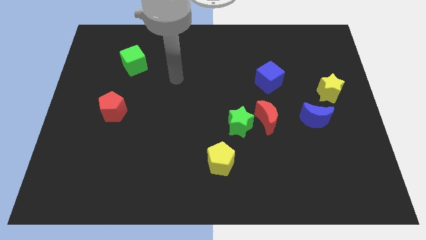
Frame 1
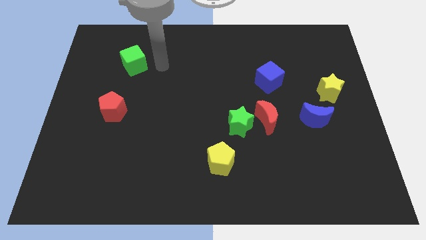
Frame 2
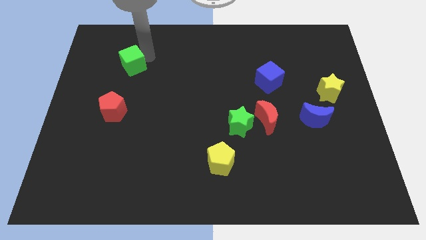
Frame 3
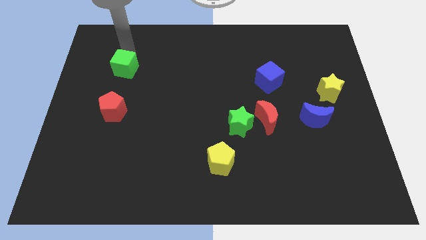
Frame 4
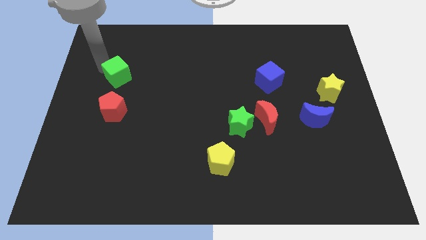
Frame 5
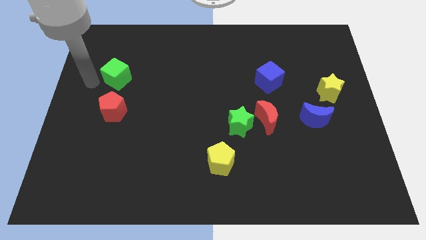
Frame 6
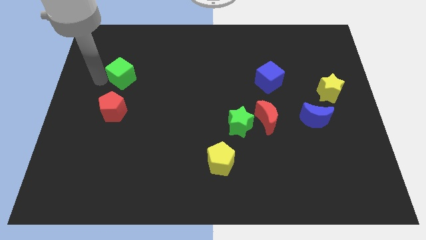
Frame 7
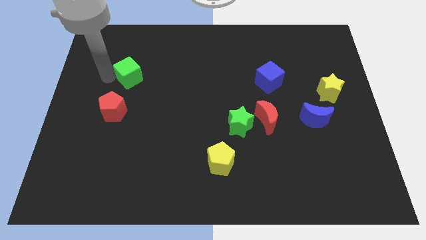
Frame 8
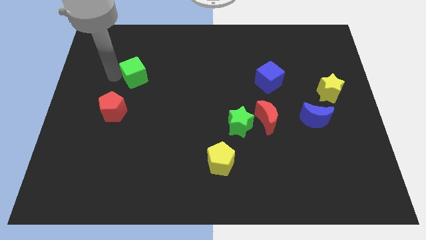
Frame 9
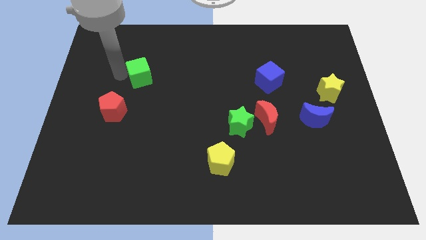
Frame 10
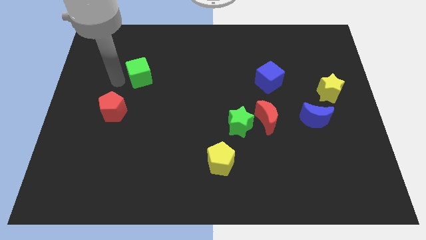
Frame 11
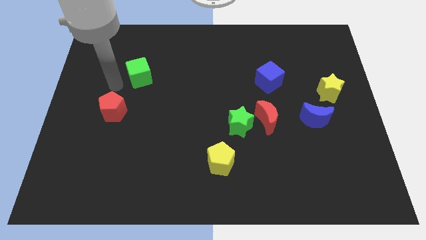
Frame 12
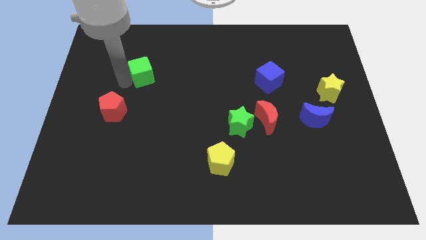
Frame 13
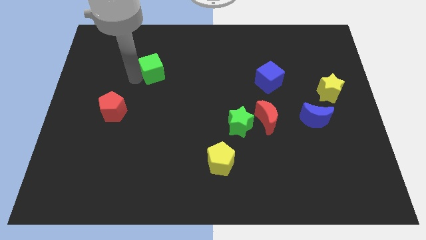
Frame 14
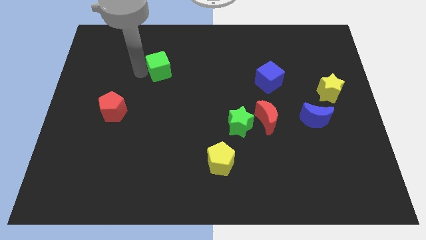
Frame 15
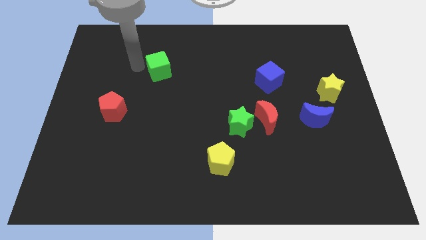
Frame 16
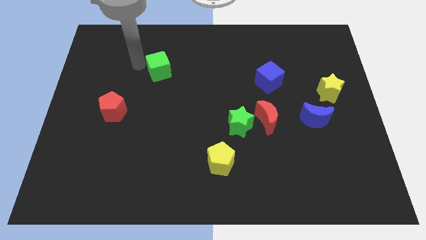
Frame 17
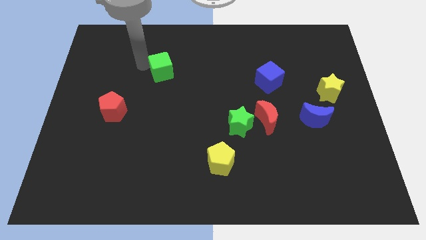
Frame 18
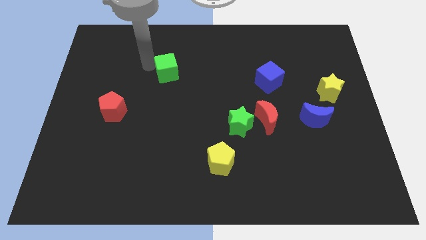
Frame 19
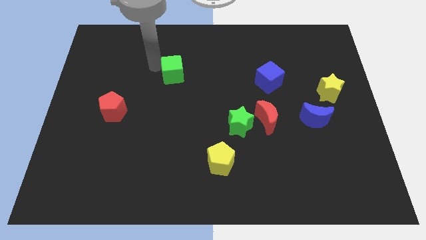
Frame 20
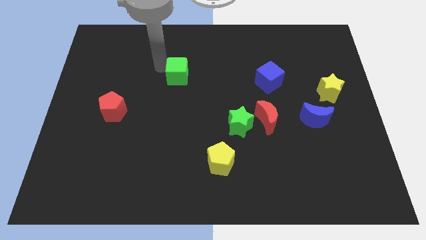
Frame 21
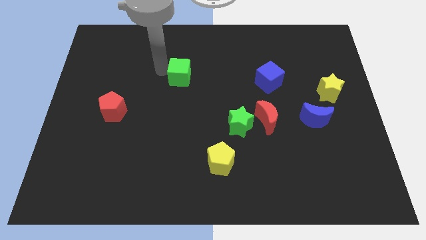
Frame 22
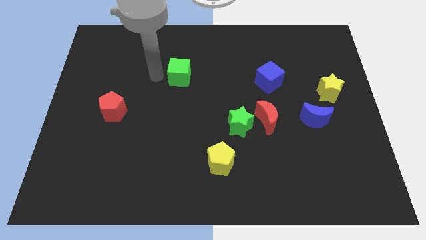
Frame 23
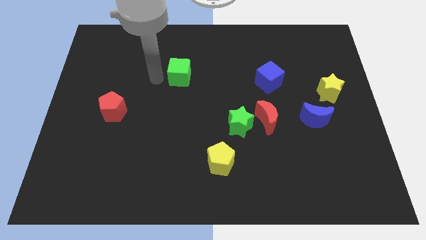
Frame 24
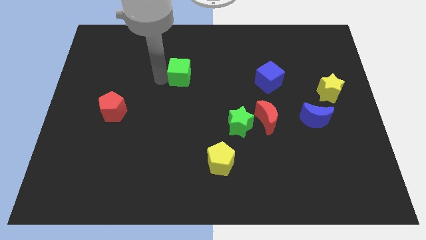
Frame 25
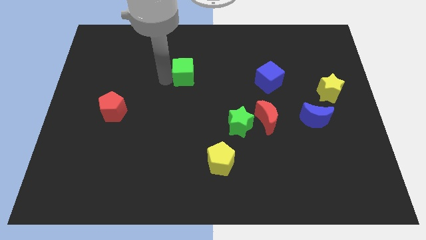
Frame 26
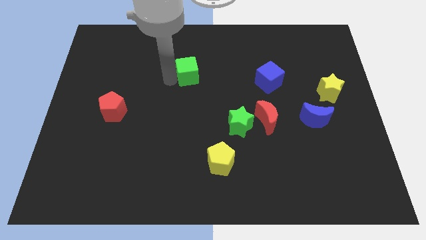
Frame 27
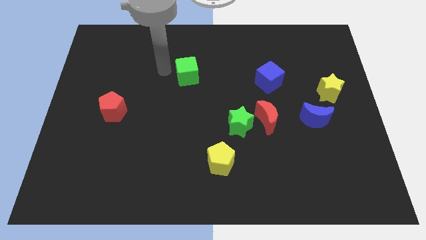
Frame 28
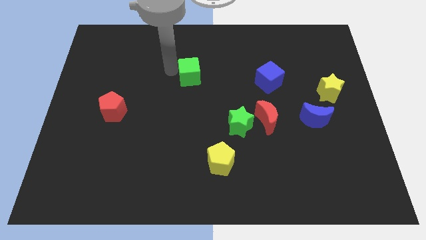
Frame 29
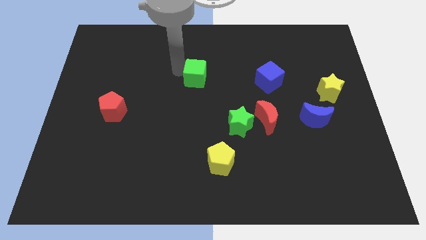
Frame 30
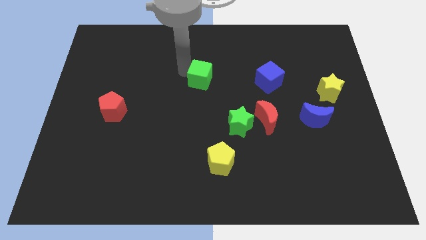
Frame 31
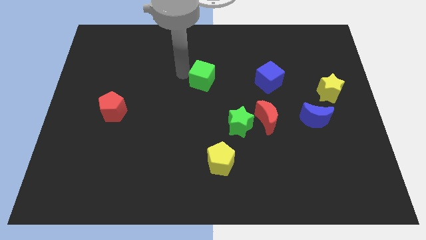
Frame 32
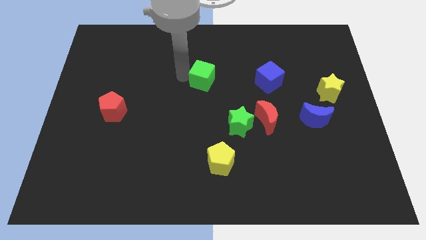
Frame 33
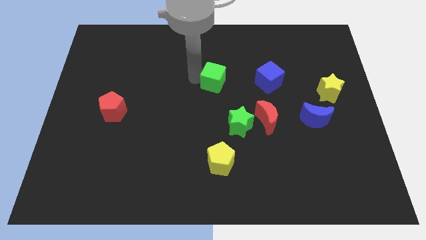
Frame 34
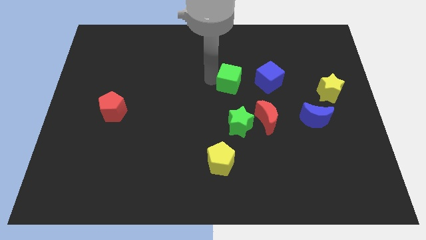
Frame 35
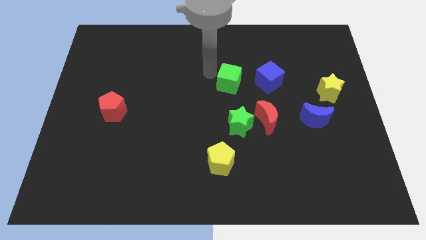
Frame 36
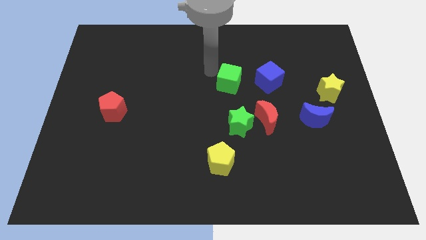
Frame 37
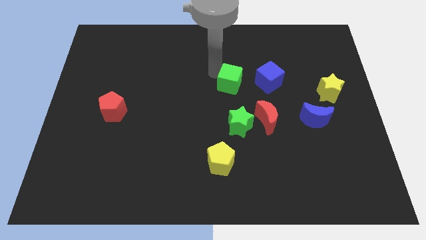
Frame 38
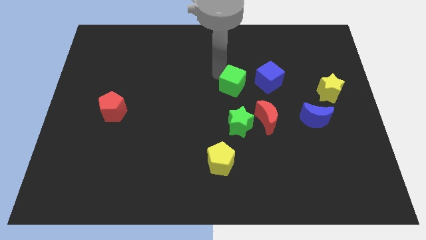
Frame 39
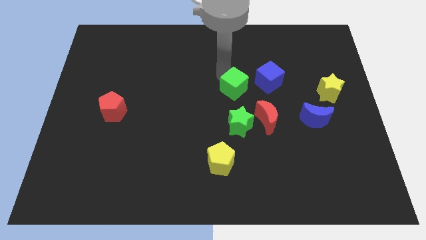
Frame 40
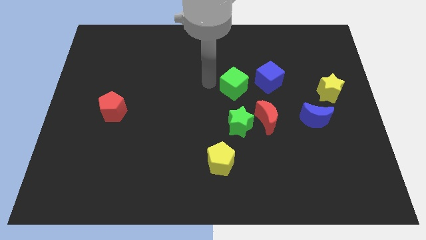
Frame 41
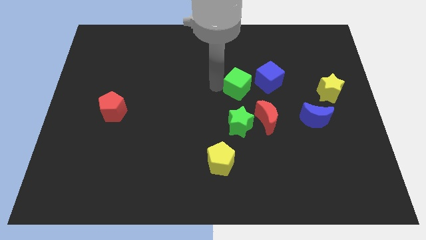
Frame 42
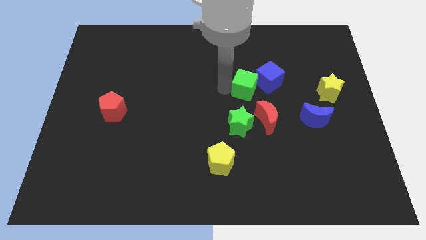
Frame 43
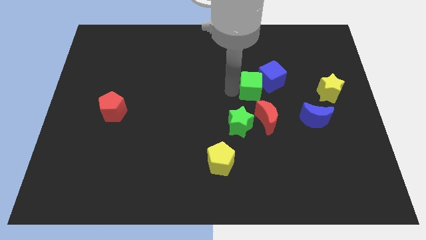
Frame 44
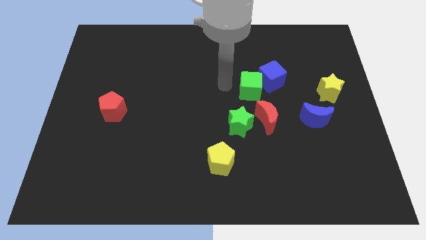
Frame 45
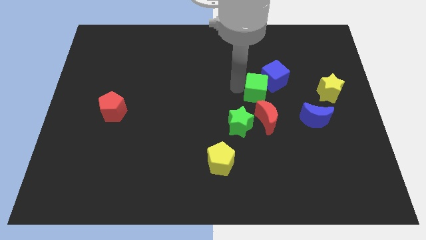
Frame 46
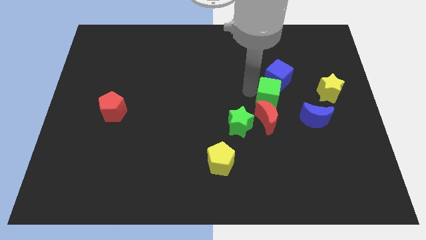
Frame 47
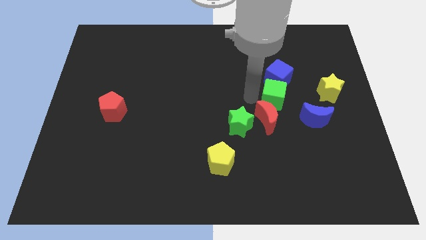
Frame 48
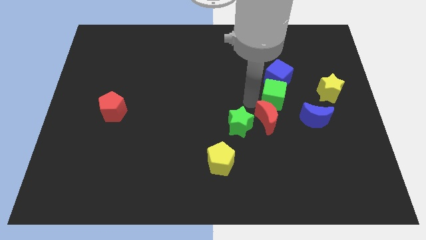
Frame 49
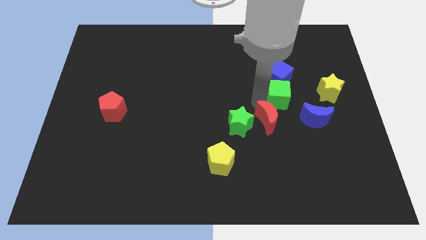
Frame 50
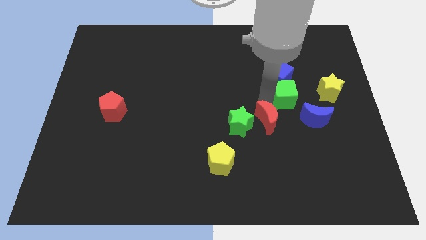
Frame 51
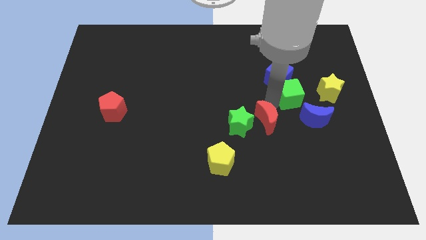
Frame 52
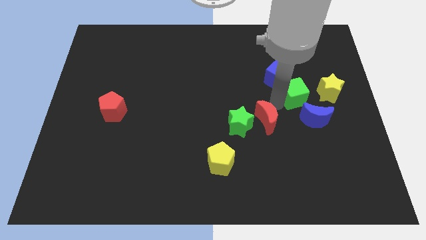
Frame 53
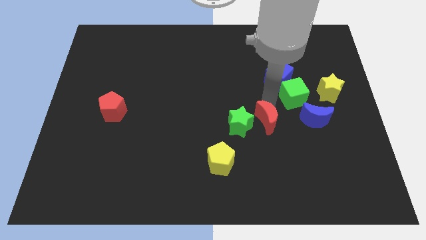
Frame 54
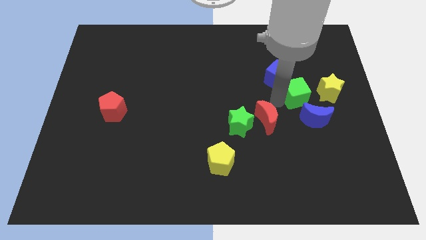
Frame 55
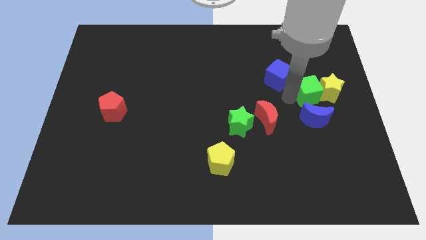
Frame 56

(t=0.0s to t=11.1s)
push the green cube towards the yellow star
